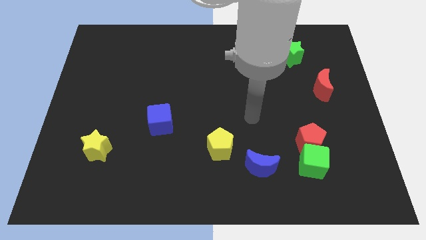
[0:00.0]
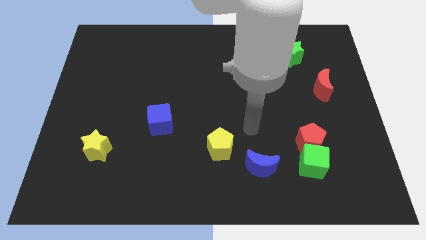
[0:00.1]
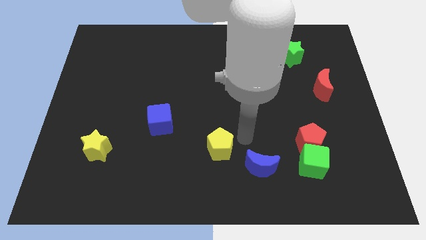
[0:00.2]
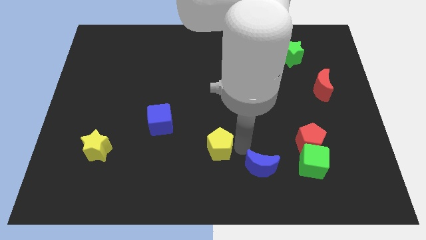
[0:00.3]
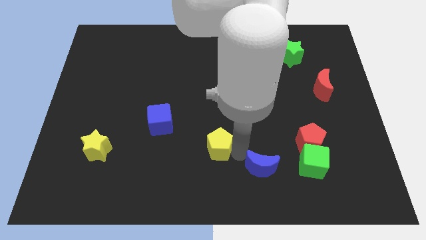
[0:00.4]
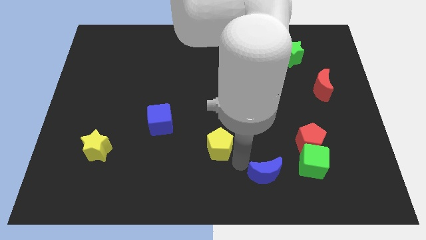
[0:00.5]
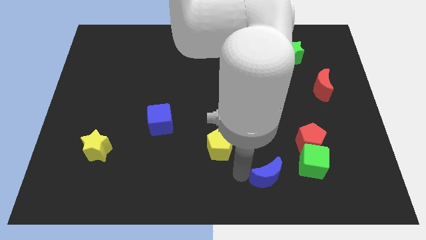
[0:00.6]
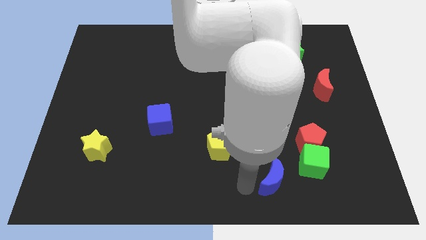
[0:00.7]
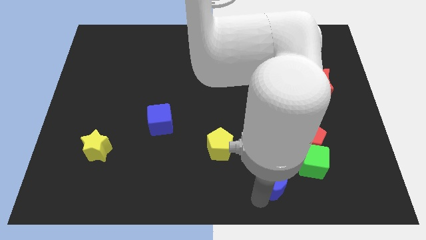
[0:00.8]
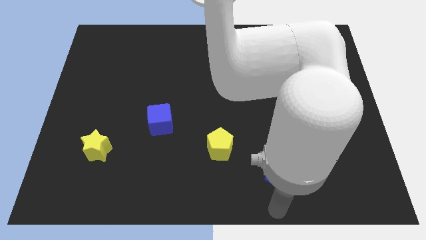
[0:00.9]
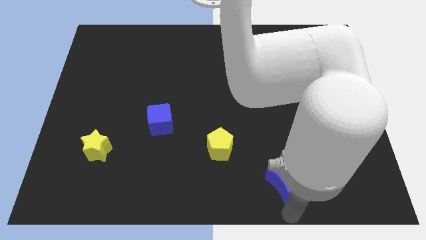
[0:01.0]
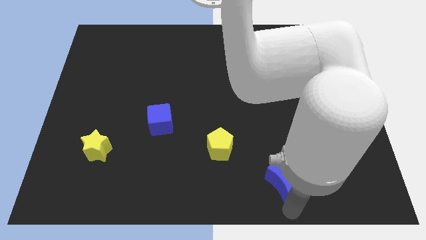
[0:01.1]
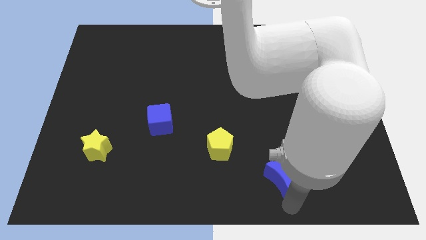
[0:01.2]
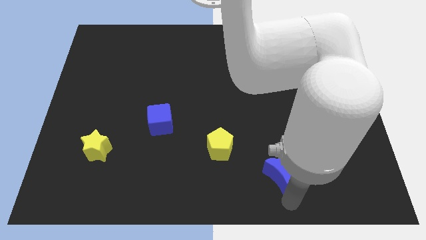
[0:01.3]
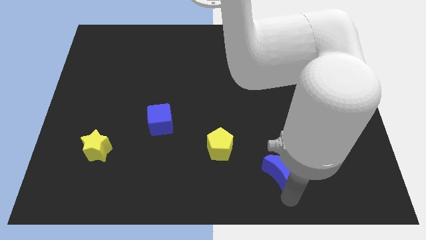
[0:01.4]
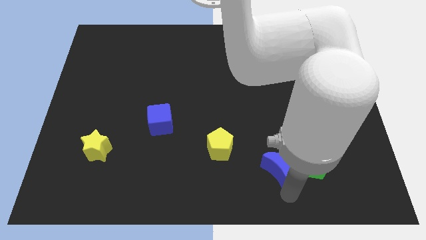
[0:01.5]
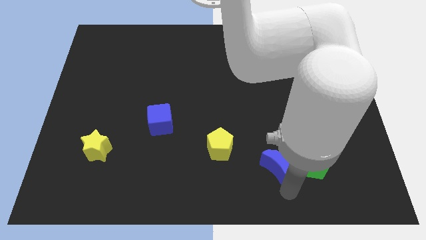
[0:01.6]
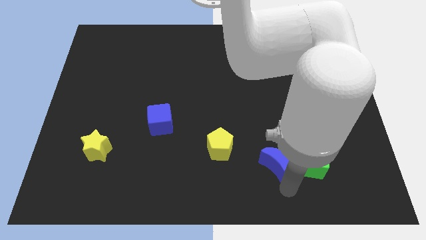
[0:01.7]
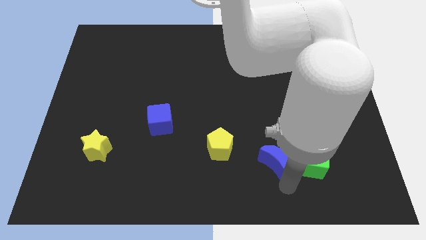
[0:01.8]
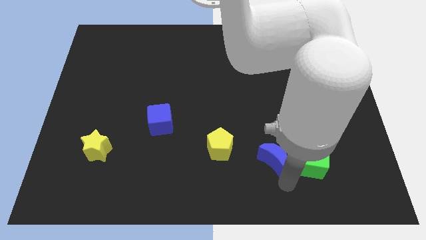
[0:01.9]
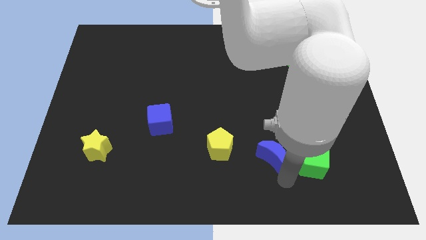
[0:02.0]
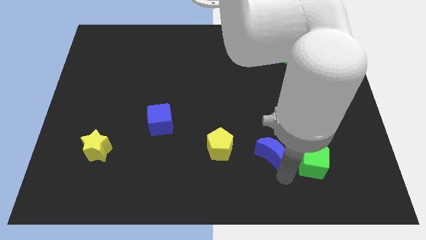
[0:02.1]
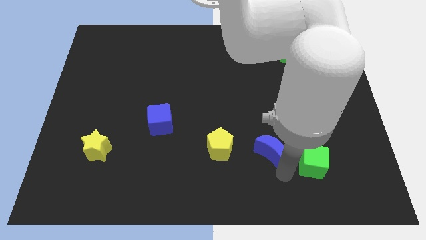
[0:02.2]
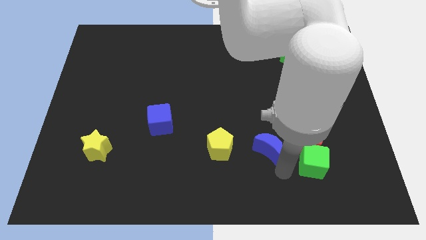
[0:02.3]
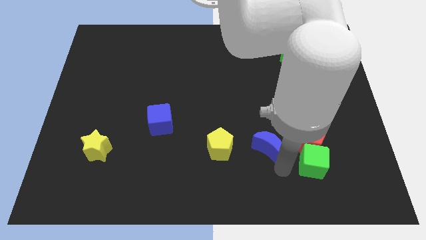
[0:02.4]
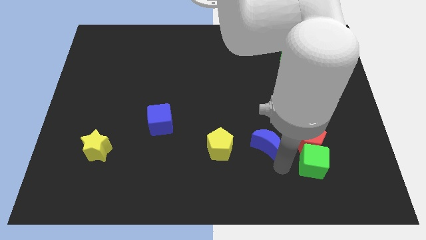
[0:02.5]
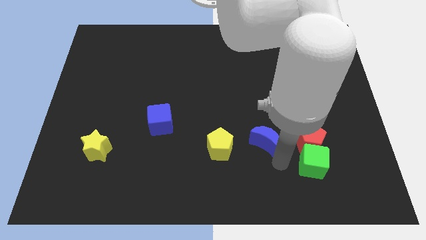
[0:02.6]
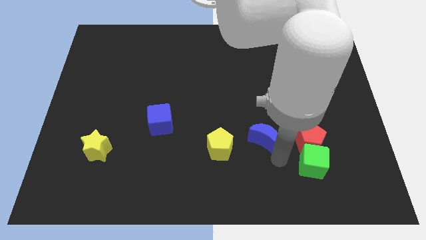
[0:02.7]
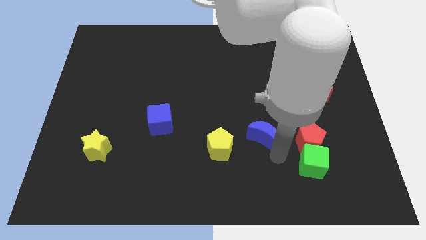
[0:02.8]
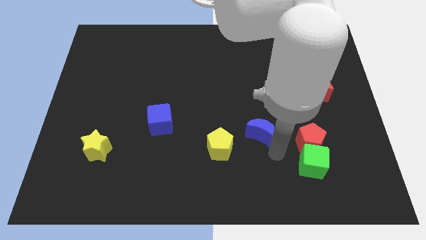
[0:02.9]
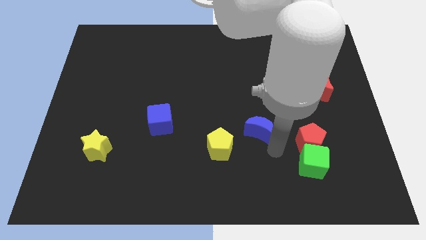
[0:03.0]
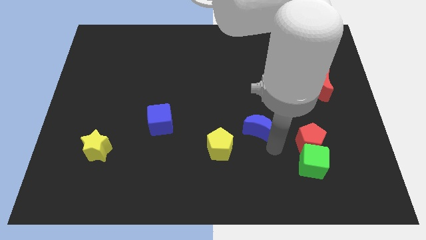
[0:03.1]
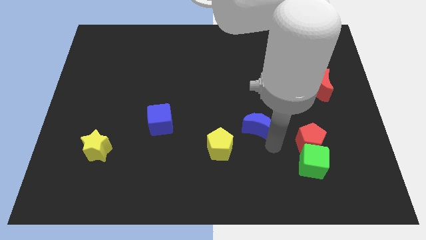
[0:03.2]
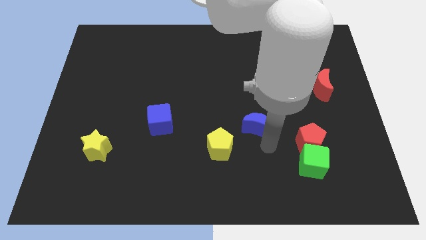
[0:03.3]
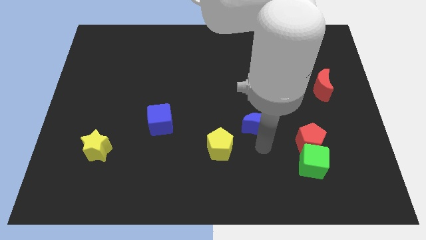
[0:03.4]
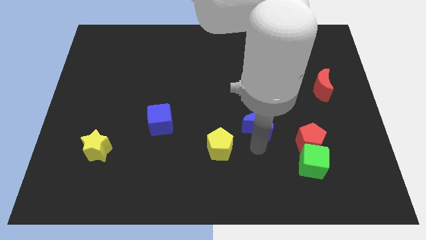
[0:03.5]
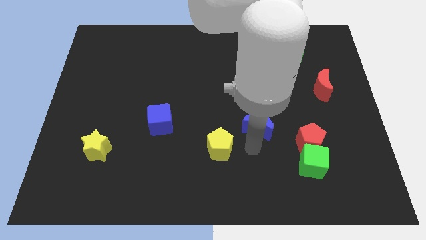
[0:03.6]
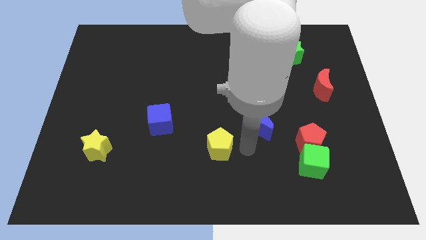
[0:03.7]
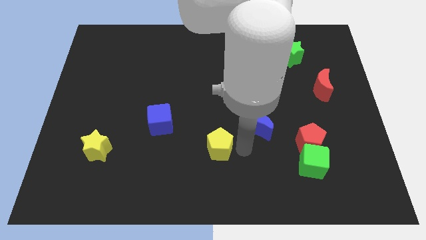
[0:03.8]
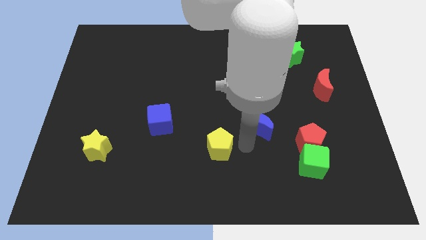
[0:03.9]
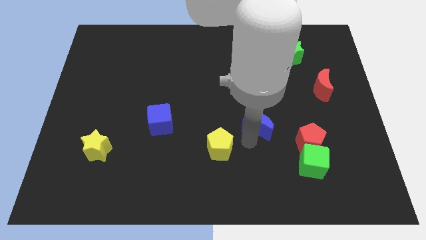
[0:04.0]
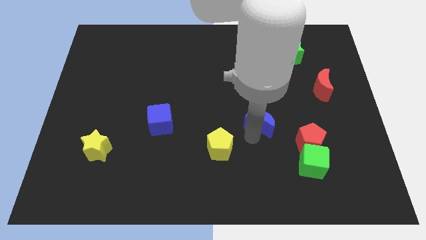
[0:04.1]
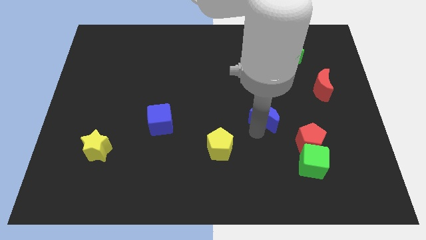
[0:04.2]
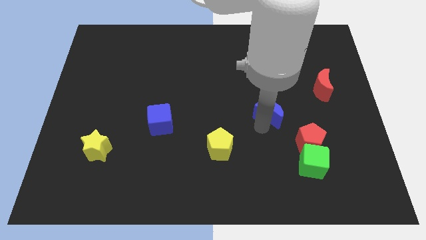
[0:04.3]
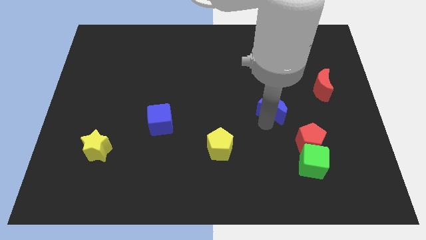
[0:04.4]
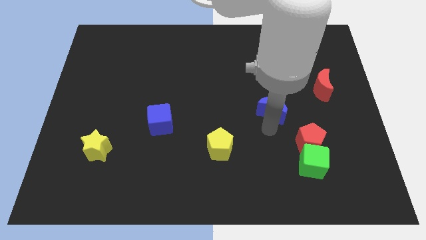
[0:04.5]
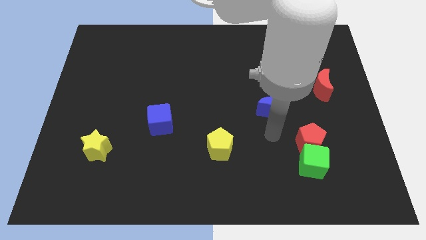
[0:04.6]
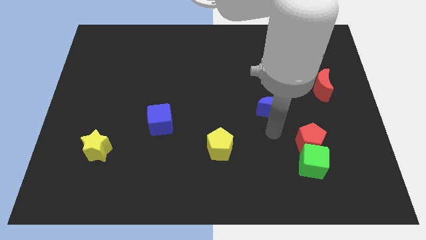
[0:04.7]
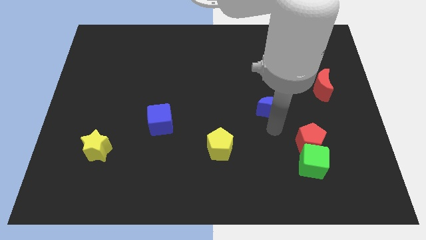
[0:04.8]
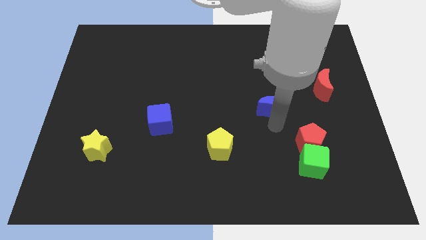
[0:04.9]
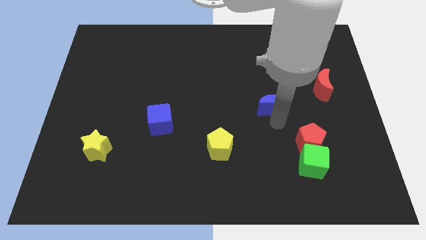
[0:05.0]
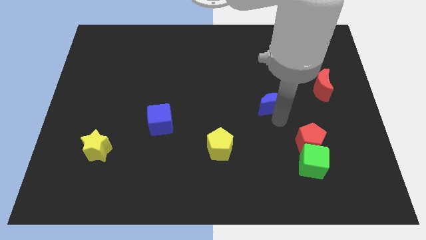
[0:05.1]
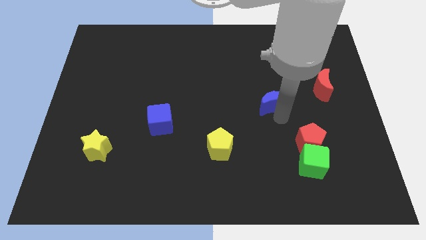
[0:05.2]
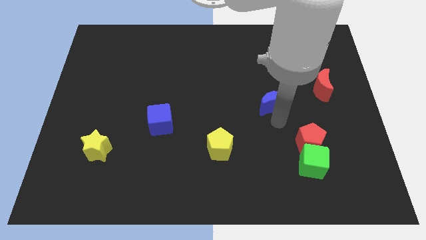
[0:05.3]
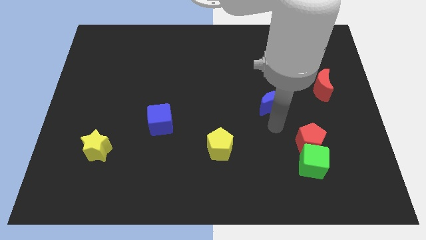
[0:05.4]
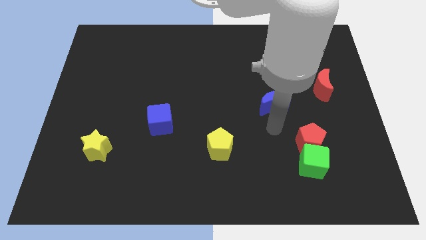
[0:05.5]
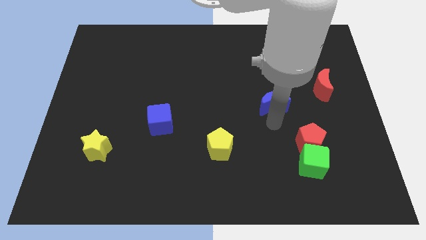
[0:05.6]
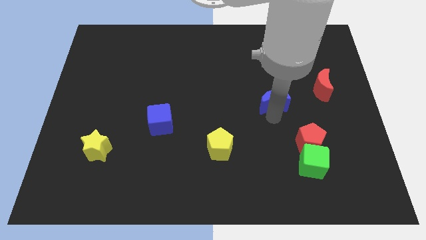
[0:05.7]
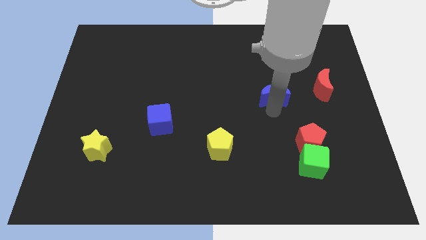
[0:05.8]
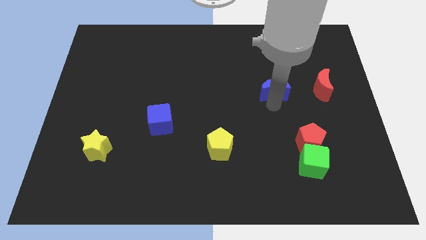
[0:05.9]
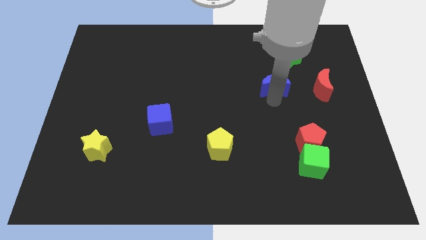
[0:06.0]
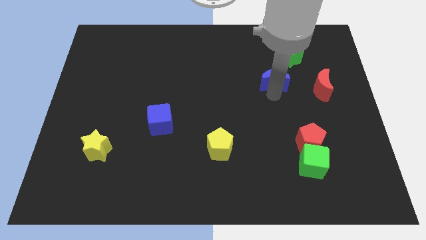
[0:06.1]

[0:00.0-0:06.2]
push the blue moon diagonally down and to the left of the green star

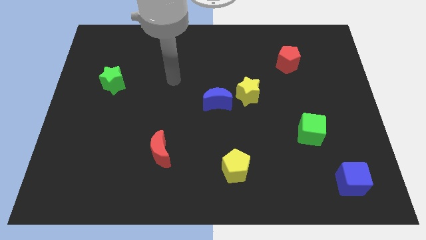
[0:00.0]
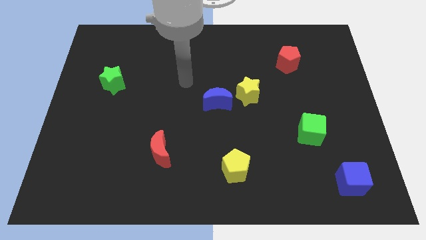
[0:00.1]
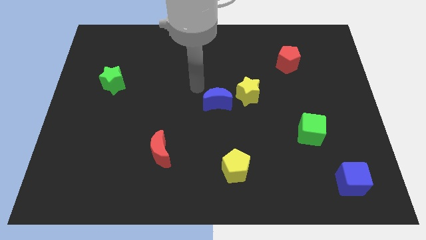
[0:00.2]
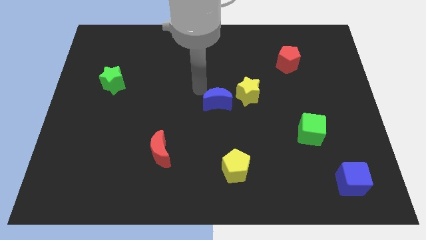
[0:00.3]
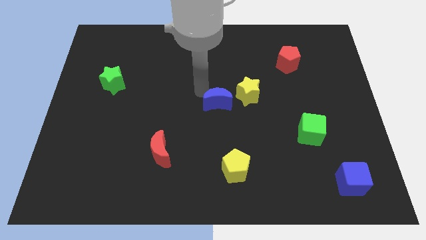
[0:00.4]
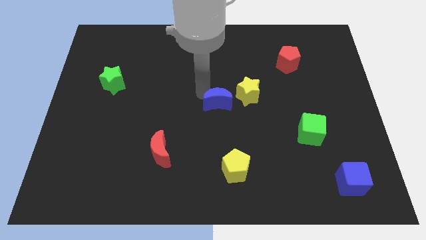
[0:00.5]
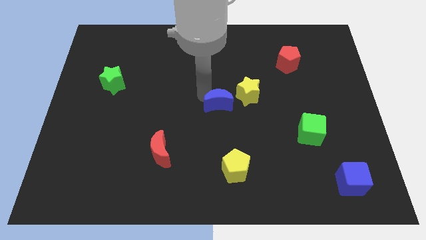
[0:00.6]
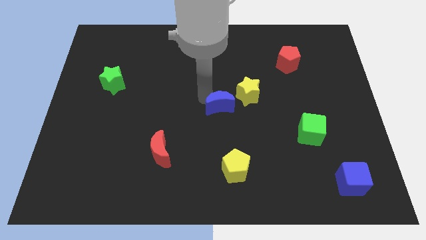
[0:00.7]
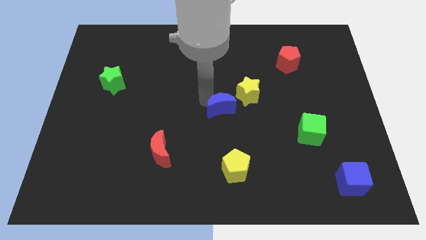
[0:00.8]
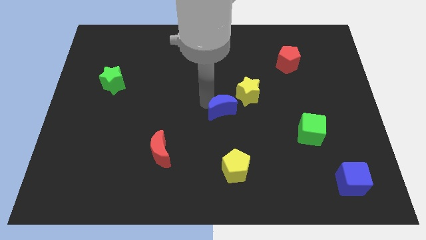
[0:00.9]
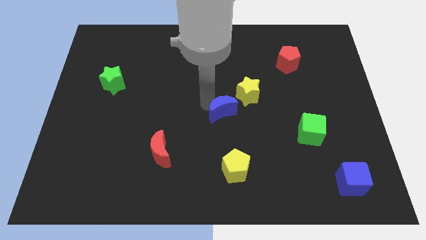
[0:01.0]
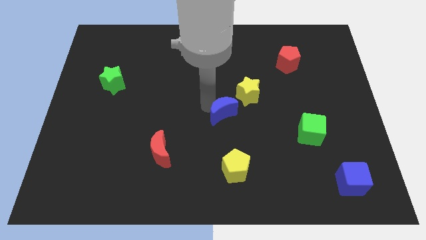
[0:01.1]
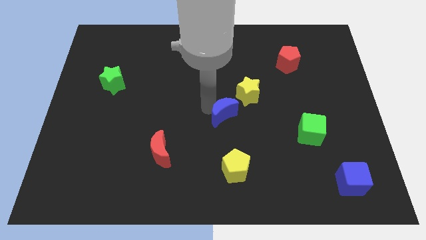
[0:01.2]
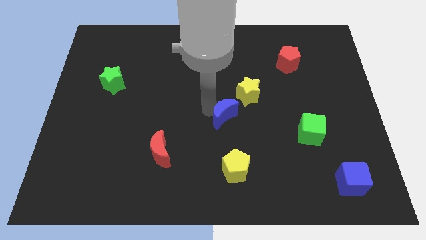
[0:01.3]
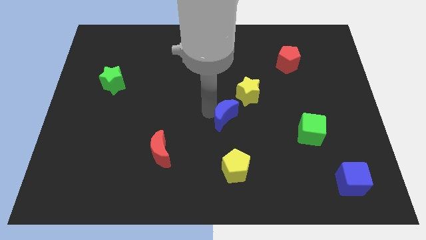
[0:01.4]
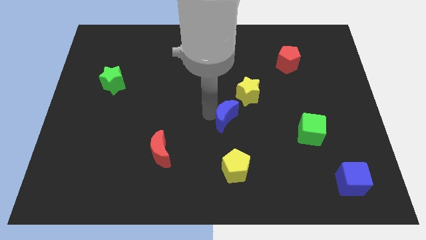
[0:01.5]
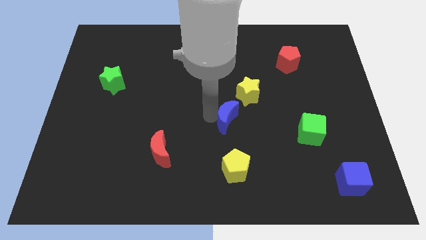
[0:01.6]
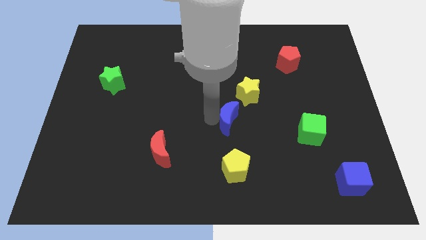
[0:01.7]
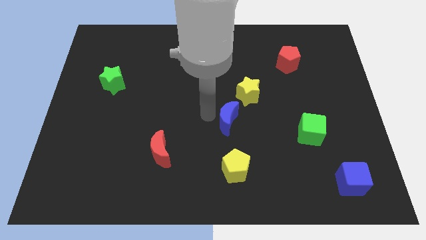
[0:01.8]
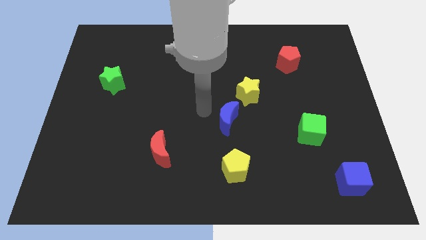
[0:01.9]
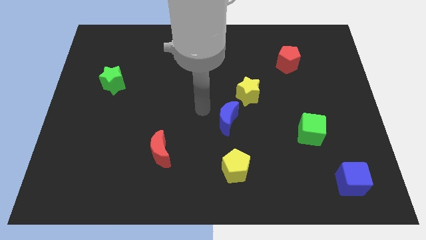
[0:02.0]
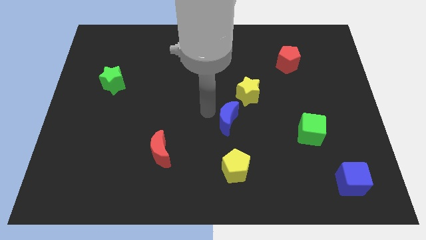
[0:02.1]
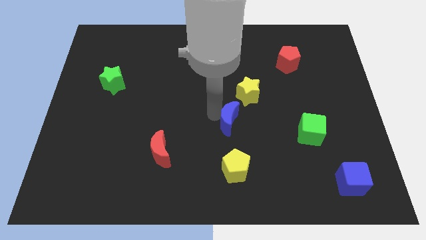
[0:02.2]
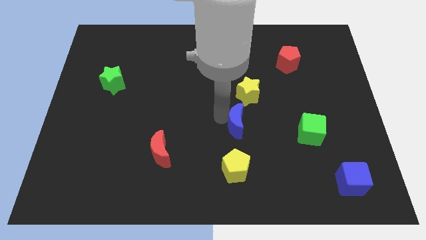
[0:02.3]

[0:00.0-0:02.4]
push the blue moon to the bottom side of the yellow star
